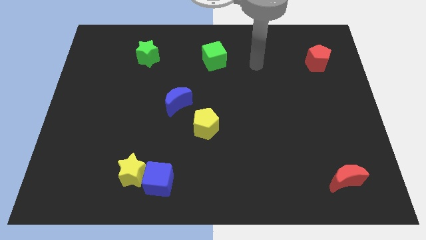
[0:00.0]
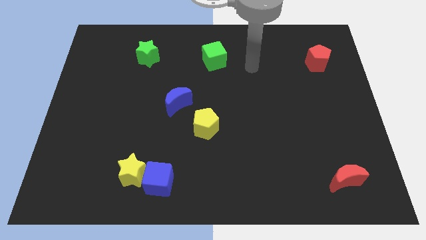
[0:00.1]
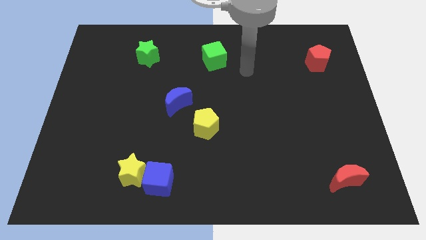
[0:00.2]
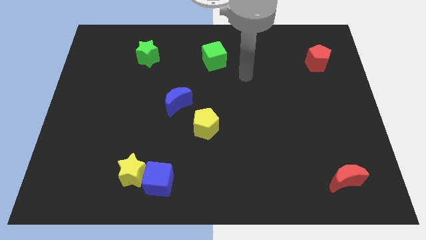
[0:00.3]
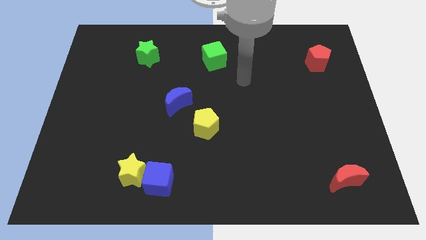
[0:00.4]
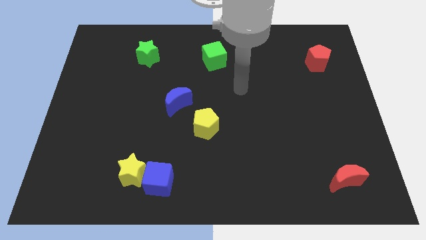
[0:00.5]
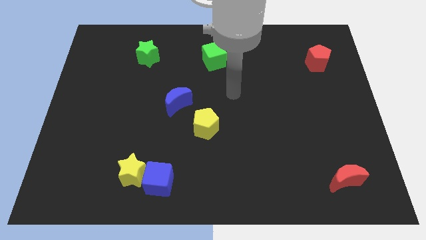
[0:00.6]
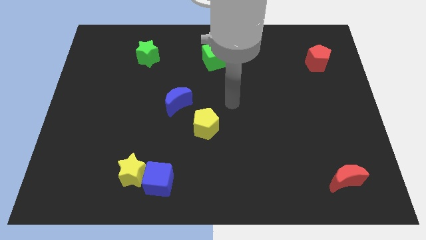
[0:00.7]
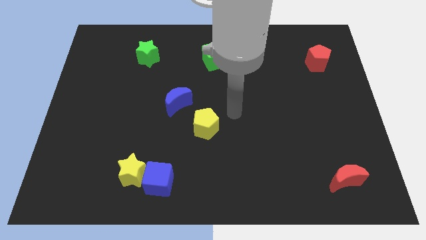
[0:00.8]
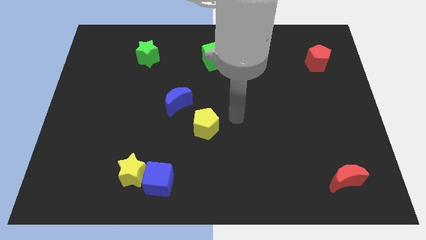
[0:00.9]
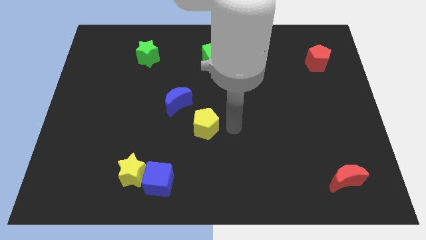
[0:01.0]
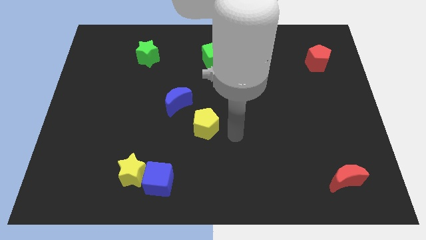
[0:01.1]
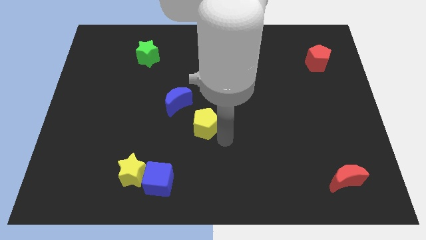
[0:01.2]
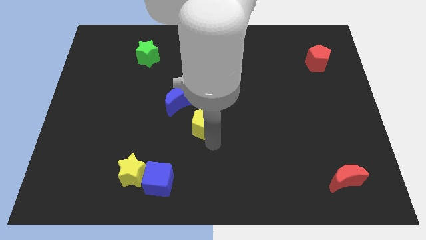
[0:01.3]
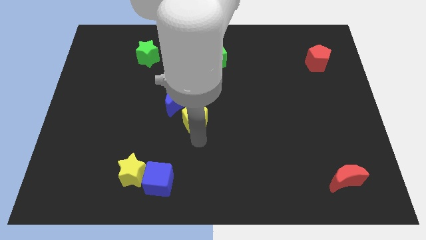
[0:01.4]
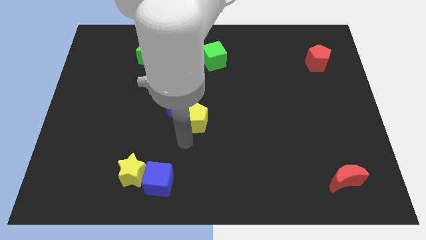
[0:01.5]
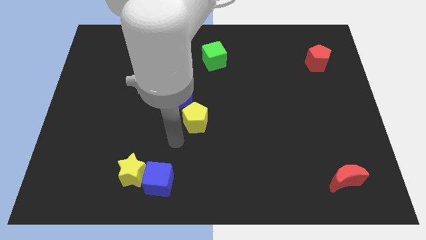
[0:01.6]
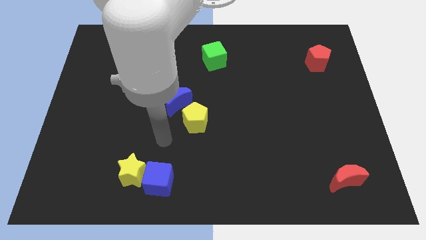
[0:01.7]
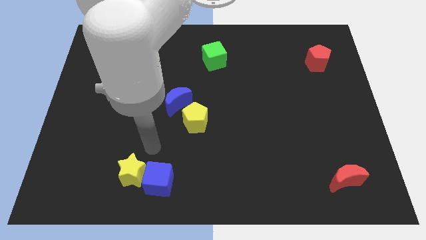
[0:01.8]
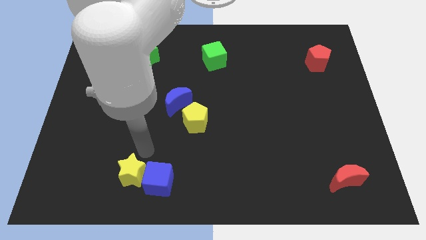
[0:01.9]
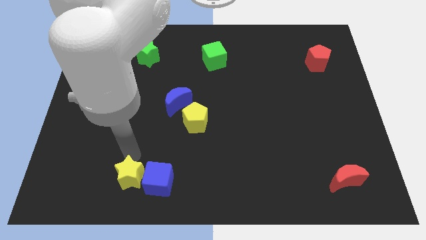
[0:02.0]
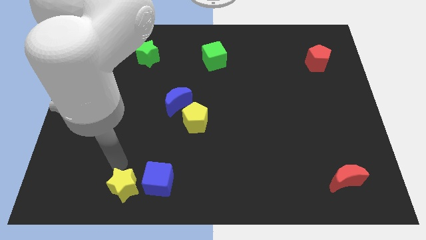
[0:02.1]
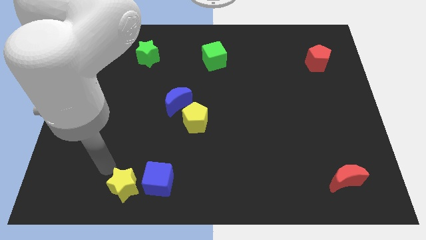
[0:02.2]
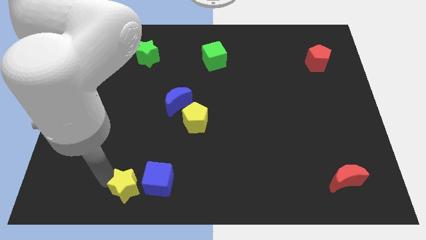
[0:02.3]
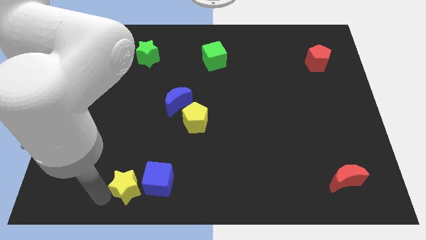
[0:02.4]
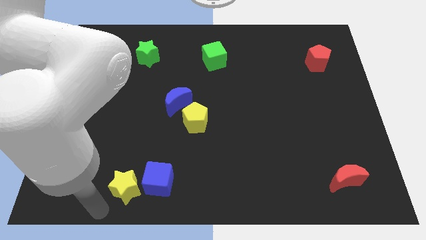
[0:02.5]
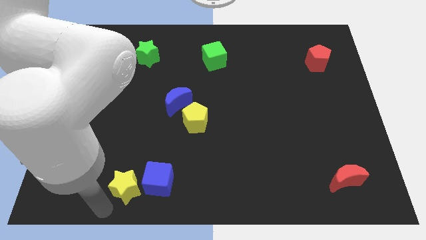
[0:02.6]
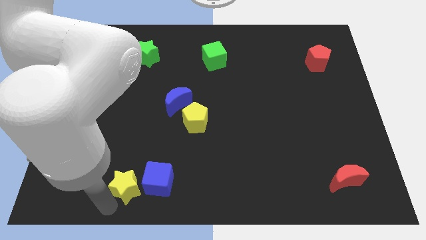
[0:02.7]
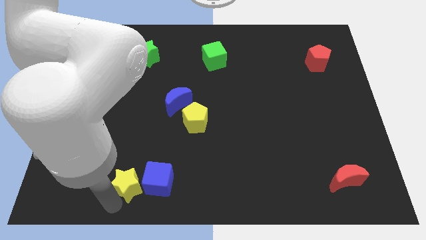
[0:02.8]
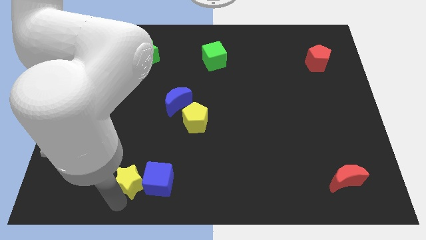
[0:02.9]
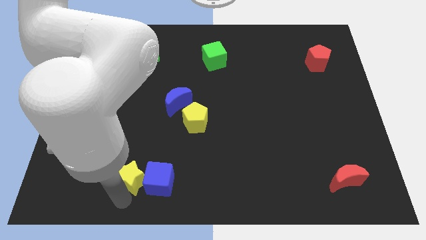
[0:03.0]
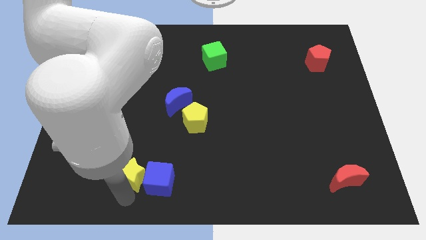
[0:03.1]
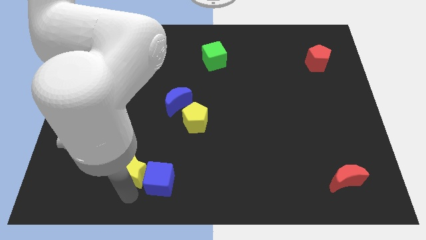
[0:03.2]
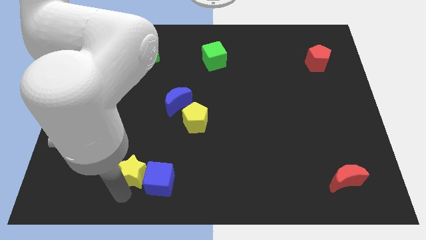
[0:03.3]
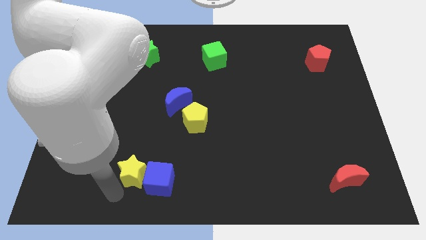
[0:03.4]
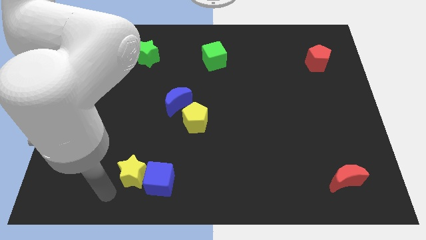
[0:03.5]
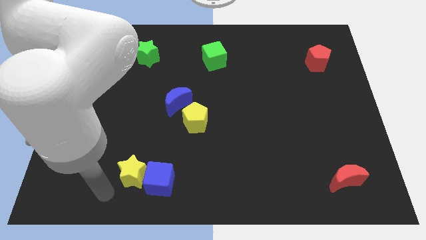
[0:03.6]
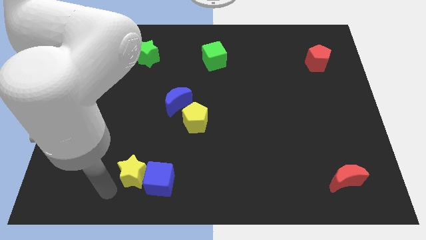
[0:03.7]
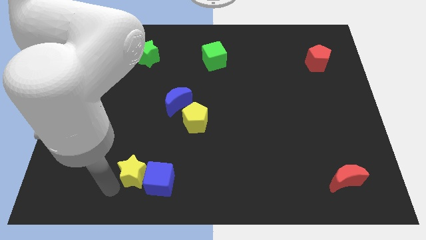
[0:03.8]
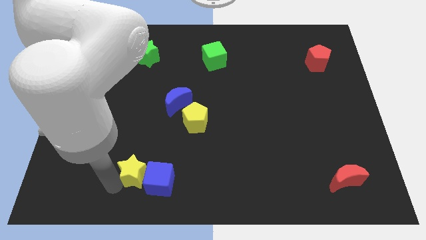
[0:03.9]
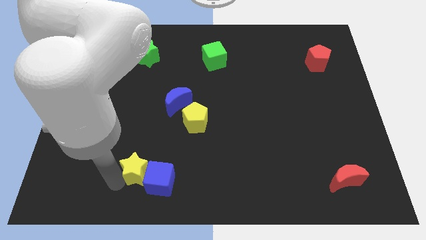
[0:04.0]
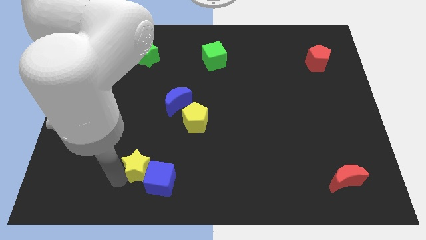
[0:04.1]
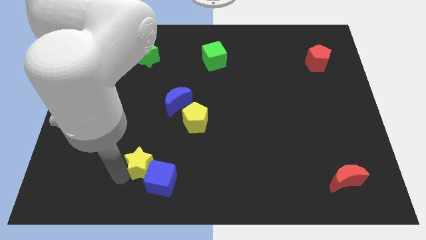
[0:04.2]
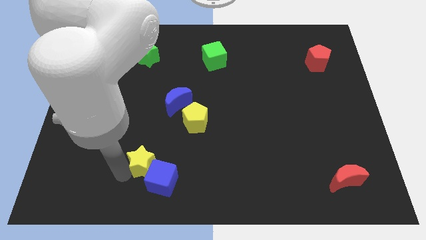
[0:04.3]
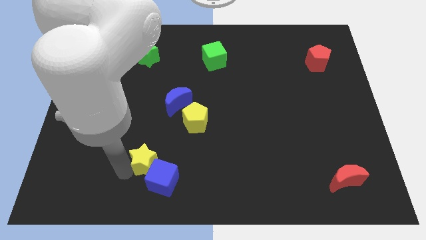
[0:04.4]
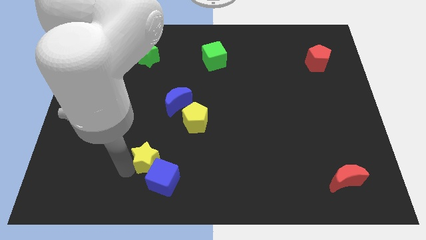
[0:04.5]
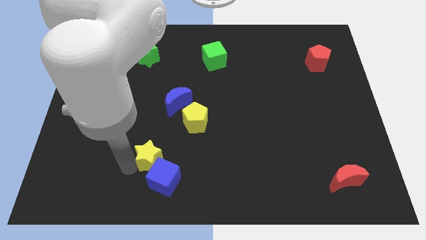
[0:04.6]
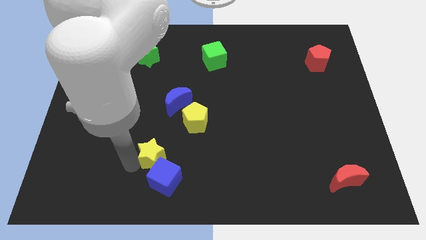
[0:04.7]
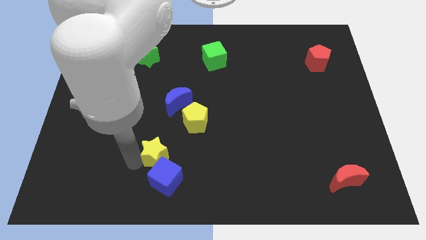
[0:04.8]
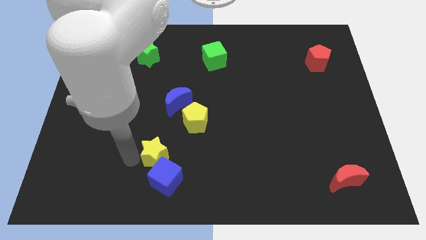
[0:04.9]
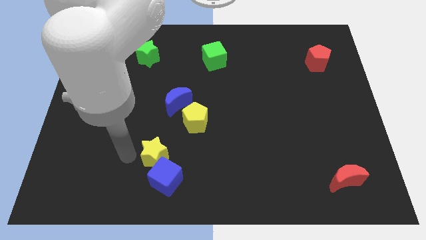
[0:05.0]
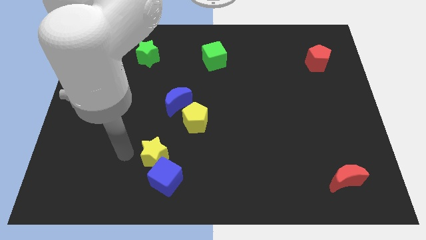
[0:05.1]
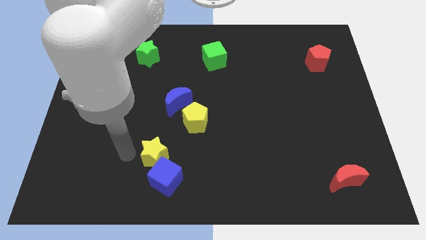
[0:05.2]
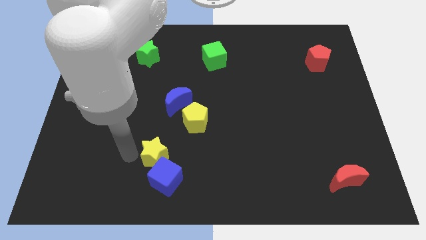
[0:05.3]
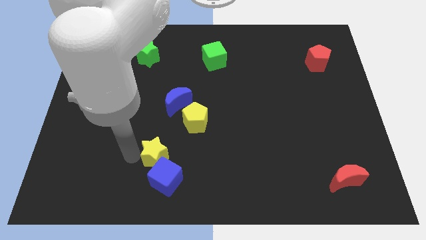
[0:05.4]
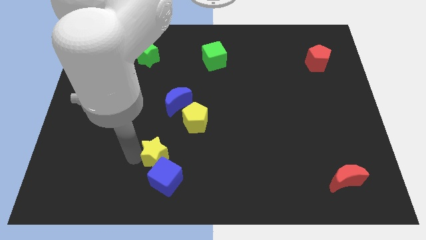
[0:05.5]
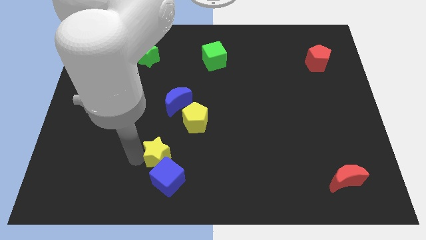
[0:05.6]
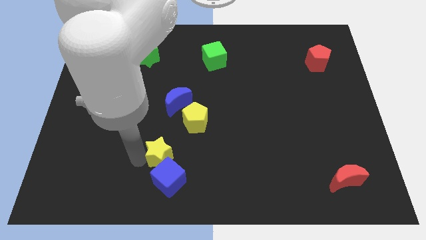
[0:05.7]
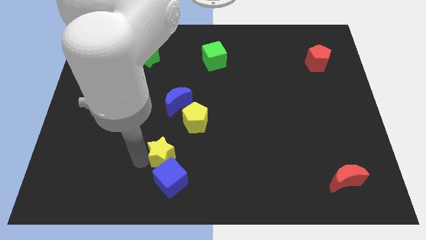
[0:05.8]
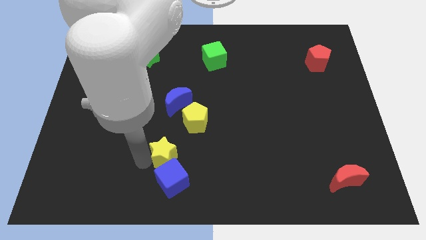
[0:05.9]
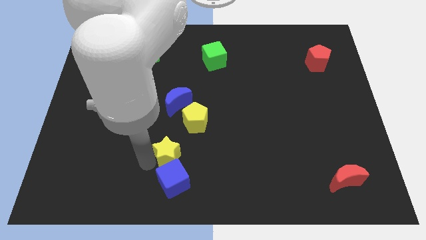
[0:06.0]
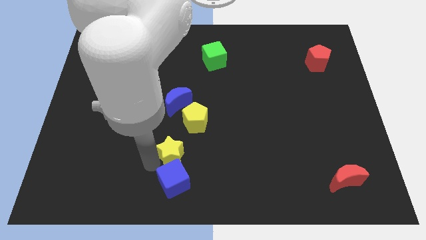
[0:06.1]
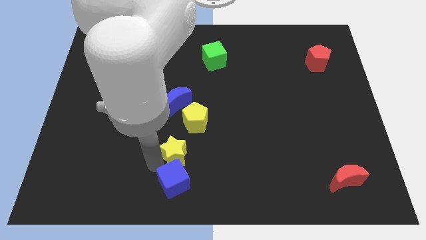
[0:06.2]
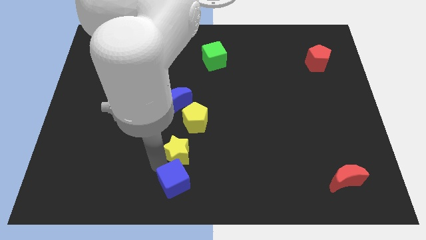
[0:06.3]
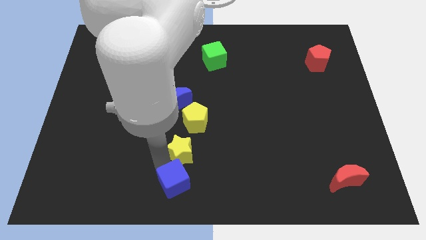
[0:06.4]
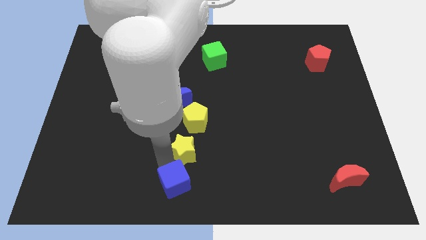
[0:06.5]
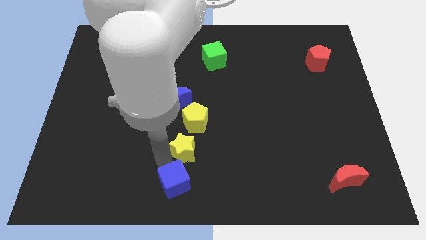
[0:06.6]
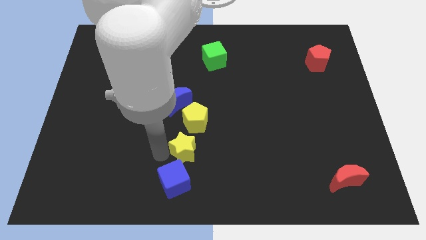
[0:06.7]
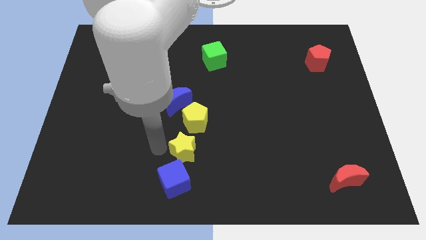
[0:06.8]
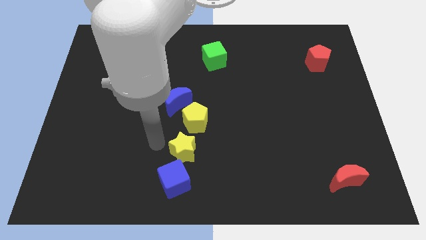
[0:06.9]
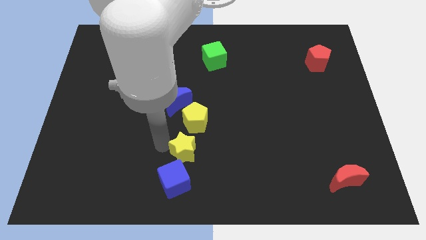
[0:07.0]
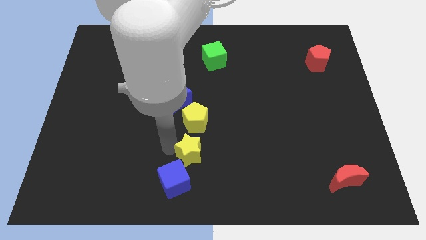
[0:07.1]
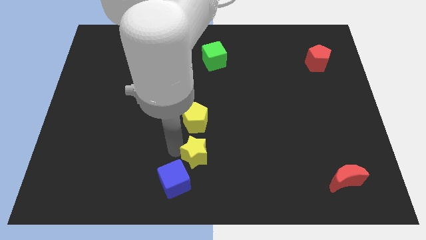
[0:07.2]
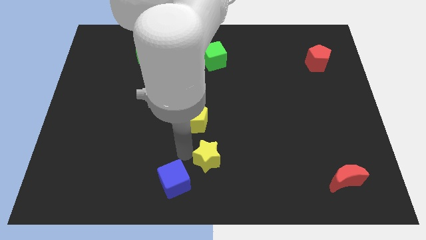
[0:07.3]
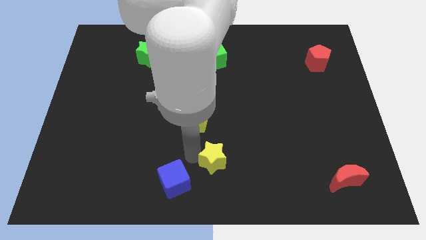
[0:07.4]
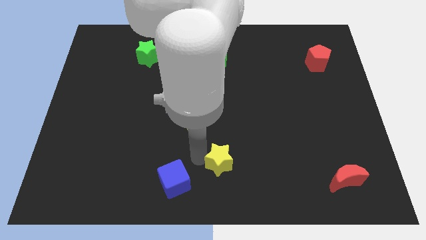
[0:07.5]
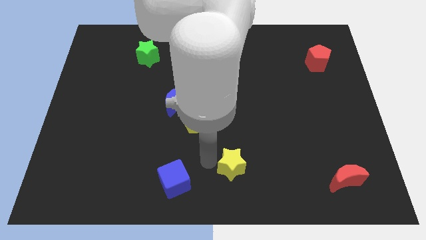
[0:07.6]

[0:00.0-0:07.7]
slide the yellow star to the right

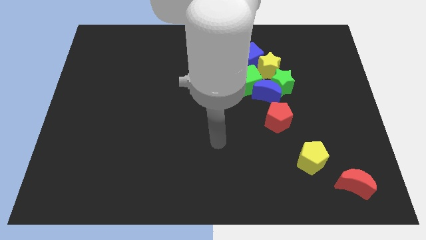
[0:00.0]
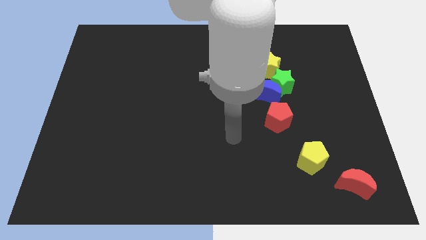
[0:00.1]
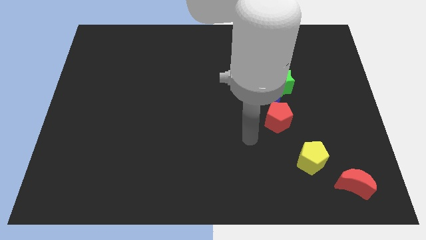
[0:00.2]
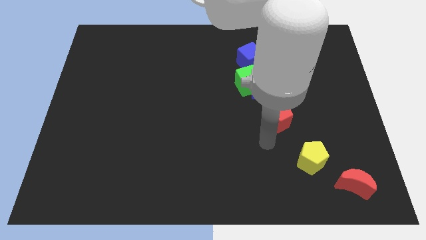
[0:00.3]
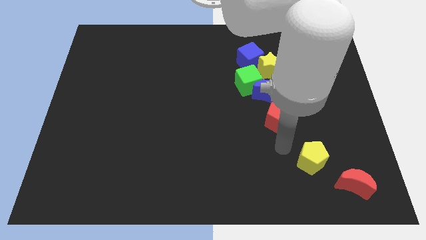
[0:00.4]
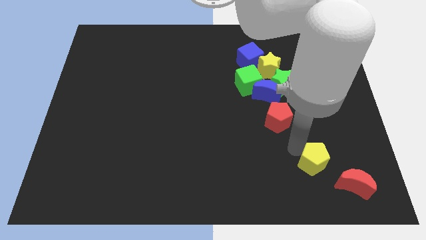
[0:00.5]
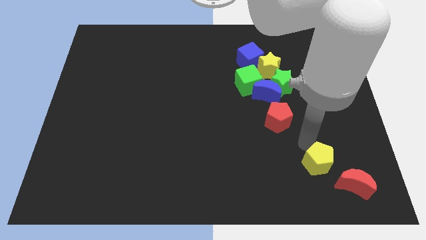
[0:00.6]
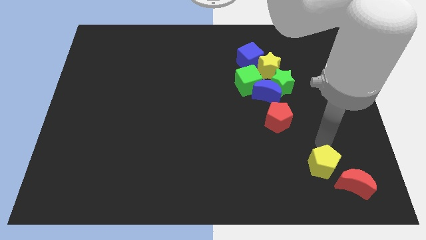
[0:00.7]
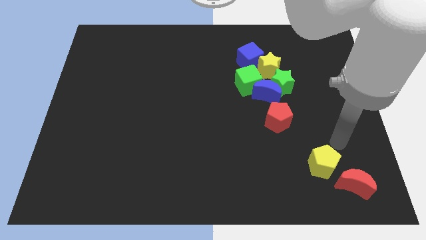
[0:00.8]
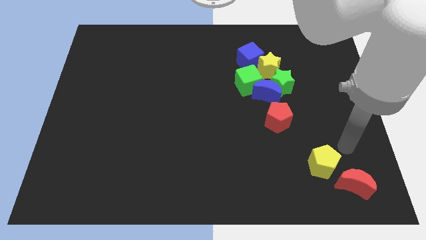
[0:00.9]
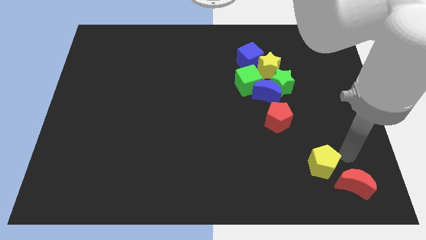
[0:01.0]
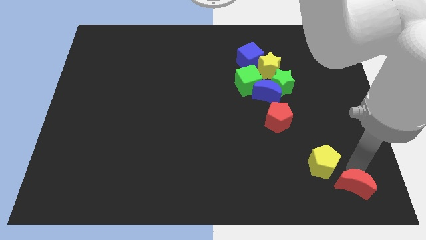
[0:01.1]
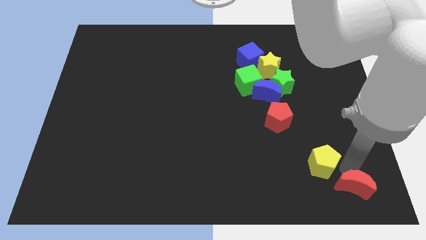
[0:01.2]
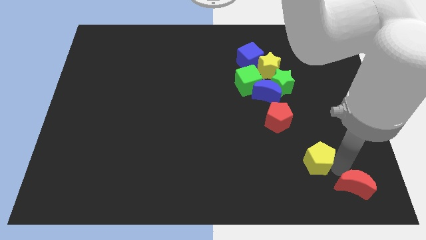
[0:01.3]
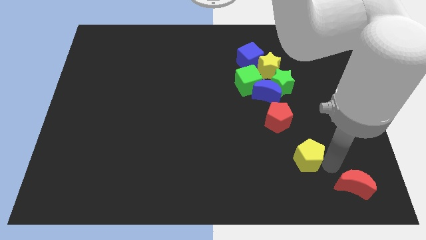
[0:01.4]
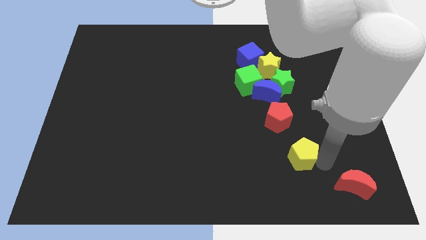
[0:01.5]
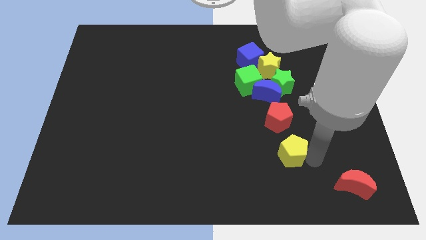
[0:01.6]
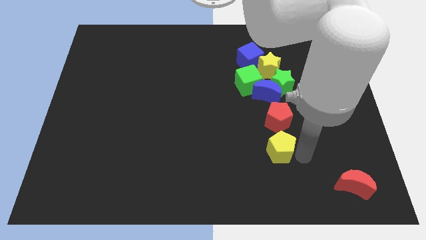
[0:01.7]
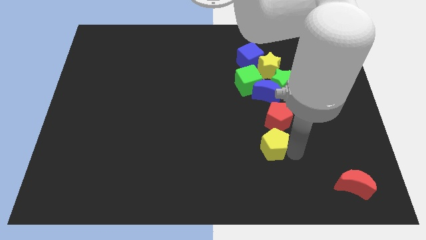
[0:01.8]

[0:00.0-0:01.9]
move the yellow pentagon a little bit to the left
